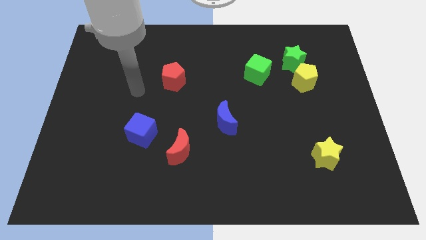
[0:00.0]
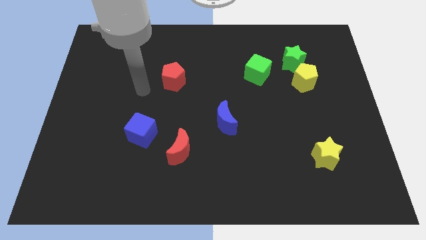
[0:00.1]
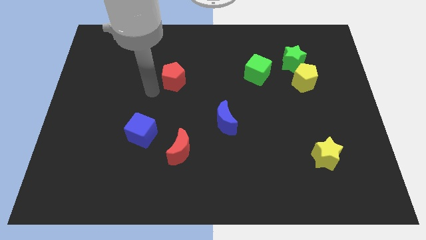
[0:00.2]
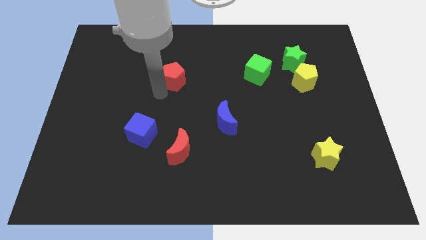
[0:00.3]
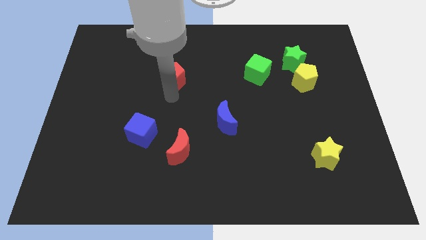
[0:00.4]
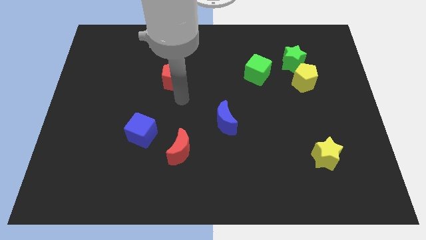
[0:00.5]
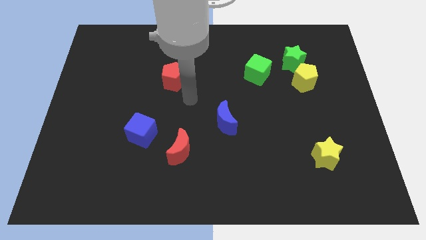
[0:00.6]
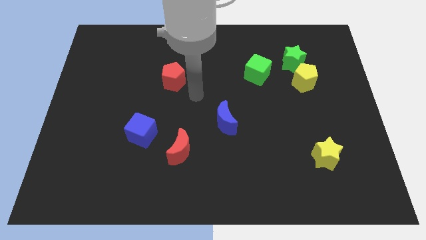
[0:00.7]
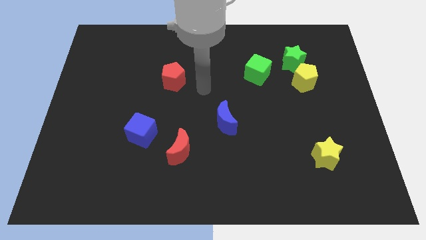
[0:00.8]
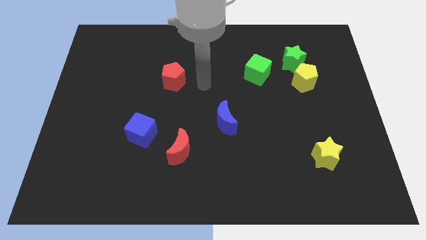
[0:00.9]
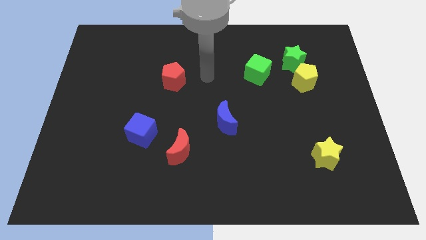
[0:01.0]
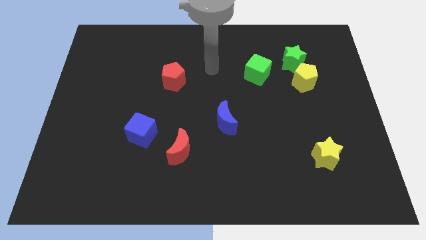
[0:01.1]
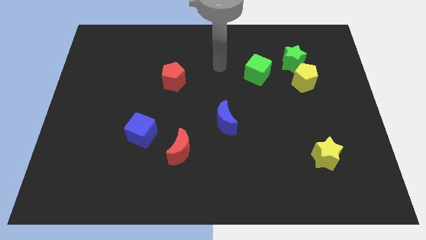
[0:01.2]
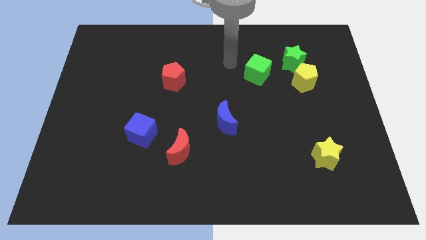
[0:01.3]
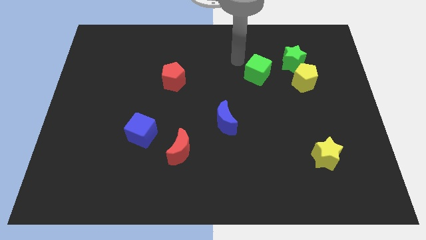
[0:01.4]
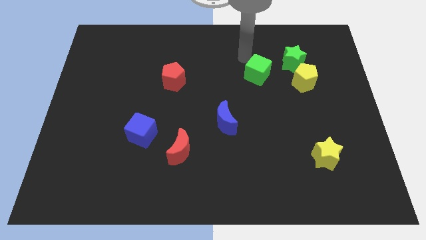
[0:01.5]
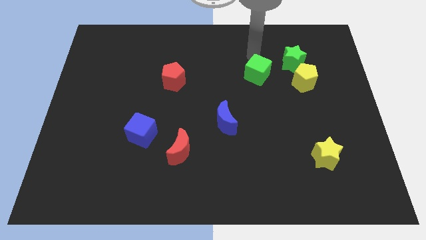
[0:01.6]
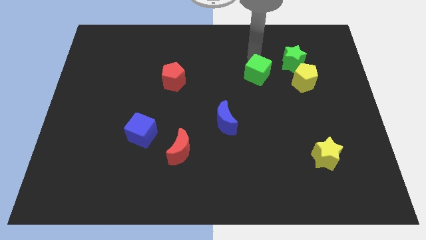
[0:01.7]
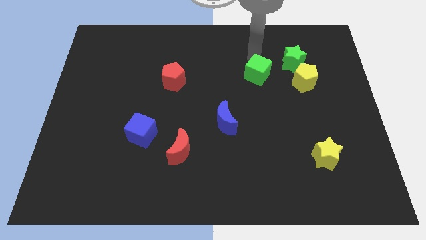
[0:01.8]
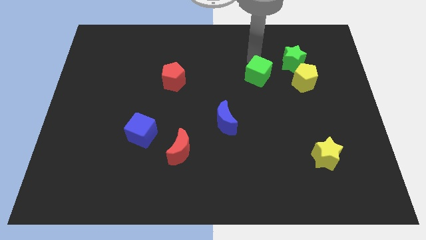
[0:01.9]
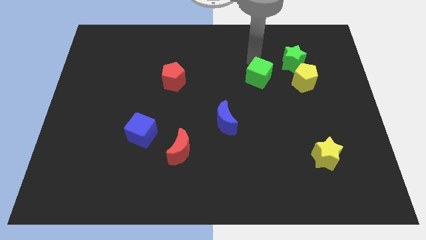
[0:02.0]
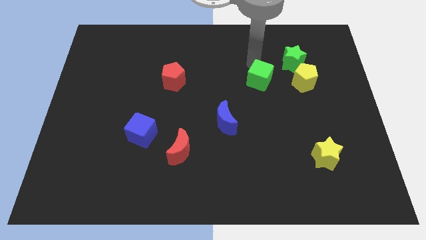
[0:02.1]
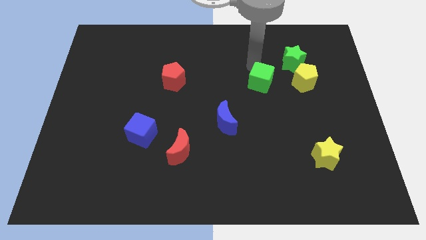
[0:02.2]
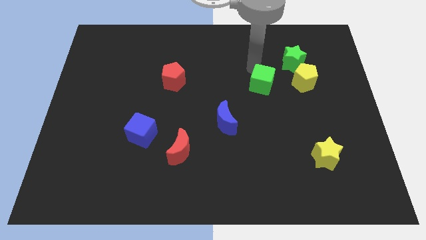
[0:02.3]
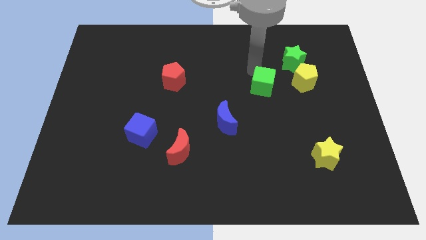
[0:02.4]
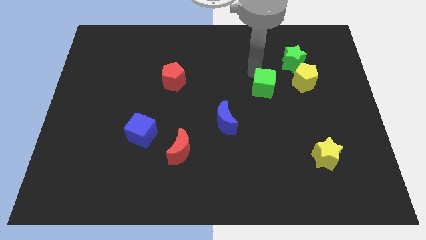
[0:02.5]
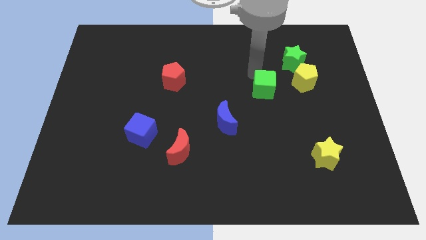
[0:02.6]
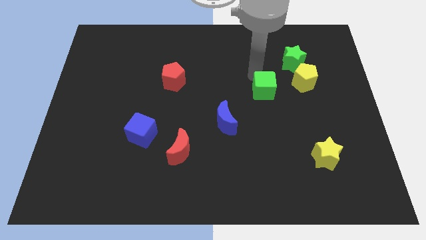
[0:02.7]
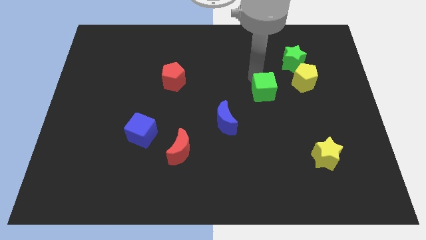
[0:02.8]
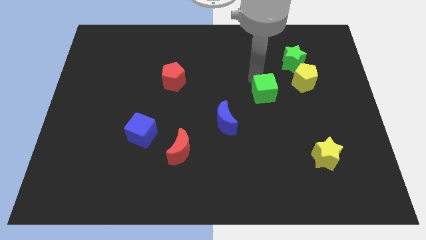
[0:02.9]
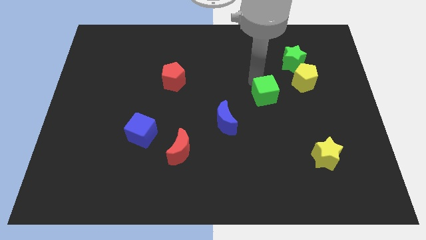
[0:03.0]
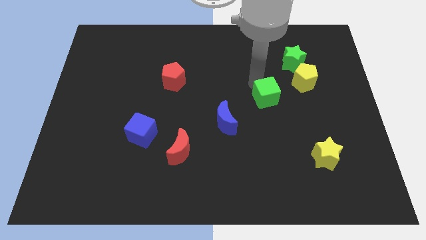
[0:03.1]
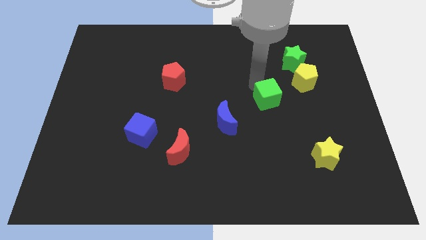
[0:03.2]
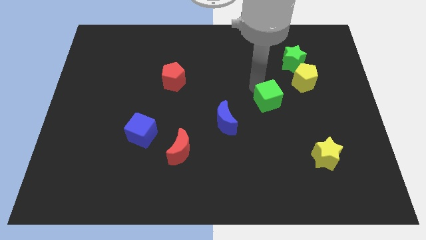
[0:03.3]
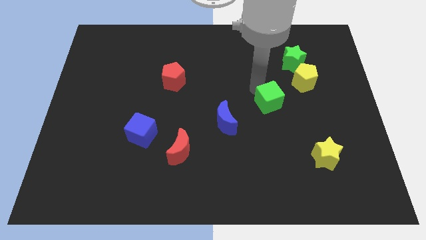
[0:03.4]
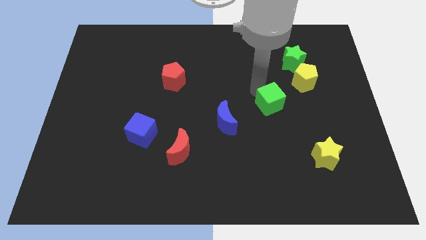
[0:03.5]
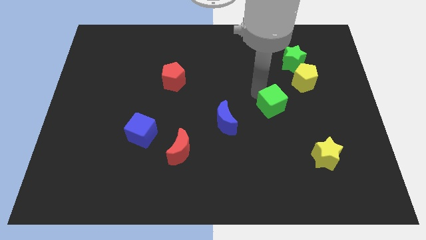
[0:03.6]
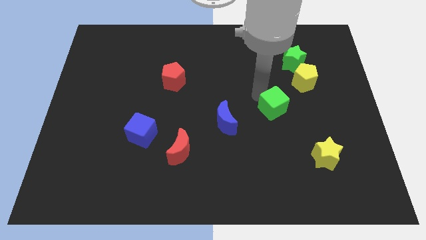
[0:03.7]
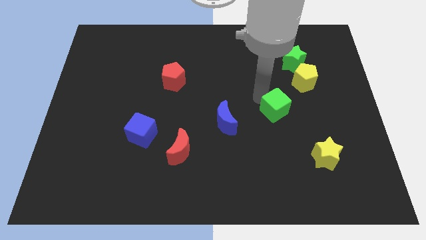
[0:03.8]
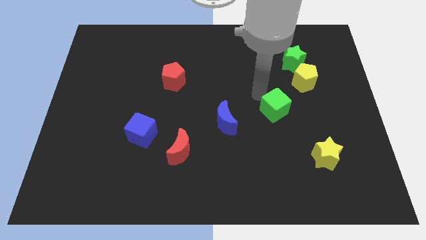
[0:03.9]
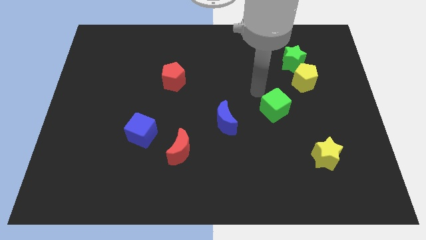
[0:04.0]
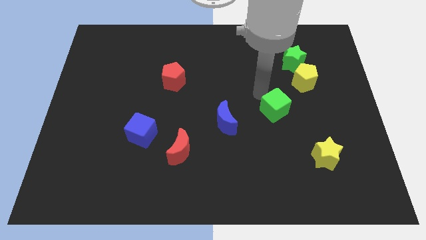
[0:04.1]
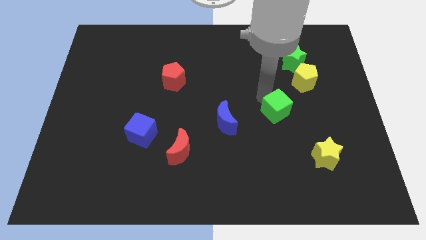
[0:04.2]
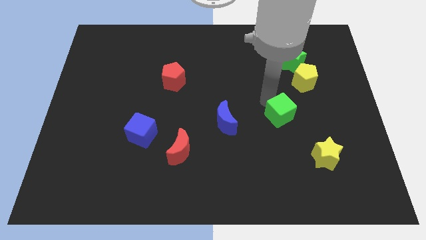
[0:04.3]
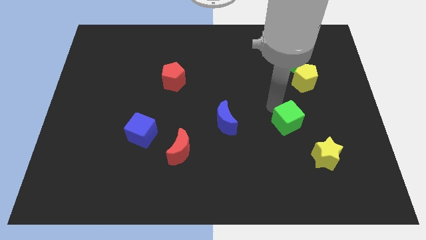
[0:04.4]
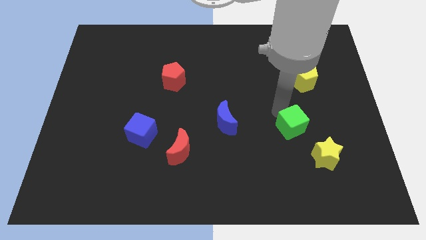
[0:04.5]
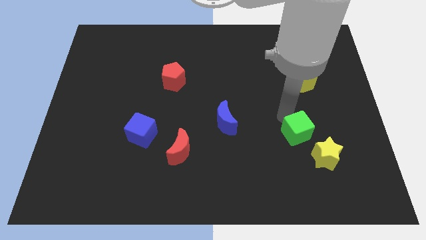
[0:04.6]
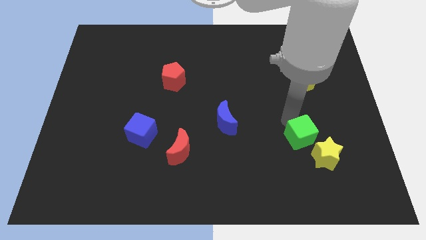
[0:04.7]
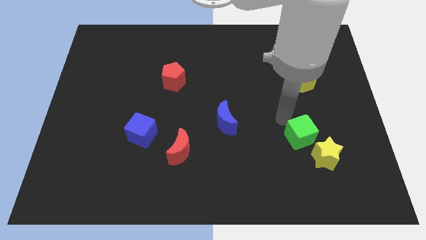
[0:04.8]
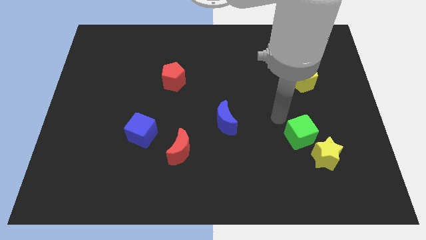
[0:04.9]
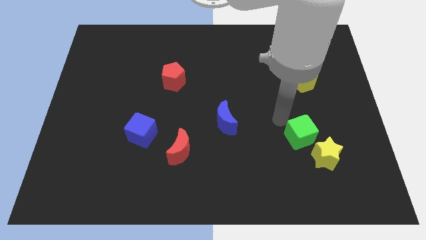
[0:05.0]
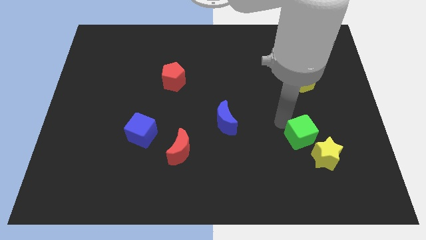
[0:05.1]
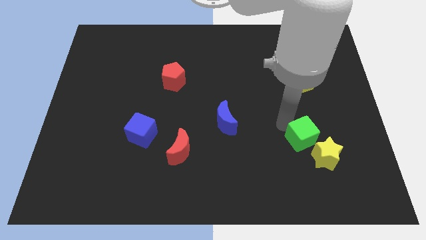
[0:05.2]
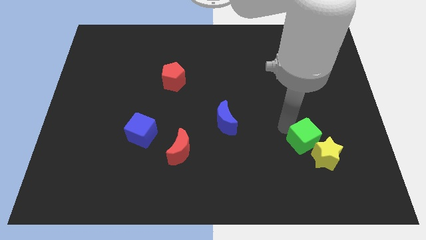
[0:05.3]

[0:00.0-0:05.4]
put the green cube next to the yellow star
